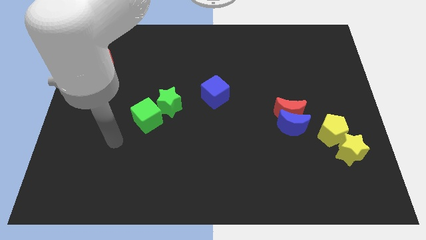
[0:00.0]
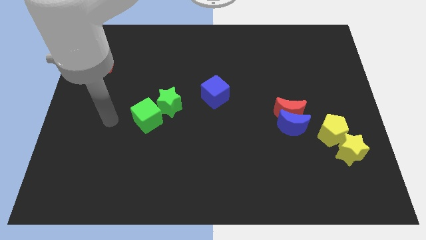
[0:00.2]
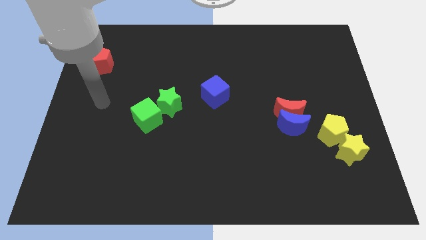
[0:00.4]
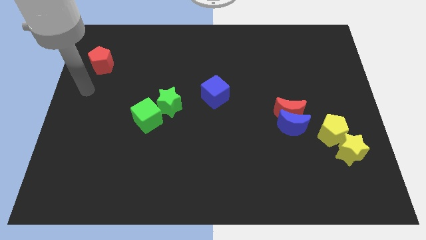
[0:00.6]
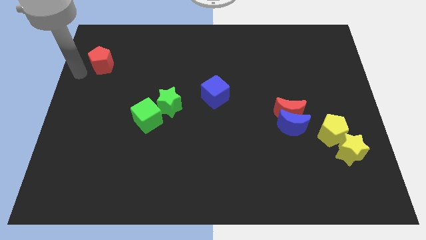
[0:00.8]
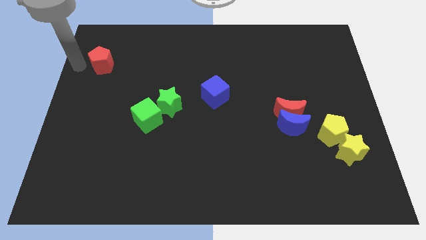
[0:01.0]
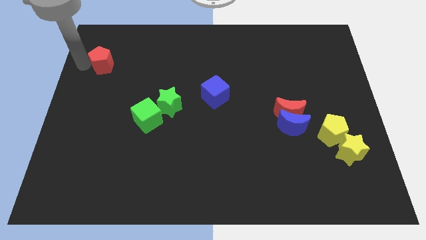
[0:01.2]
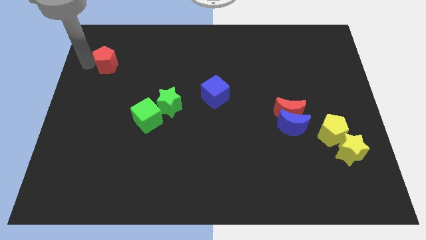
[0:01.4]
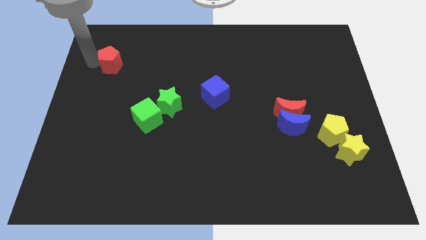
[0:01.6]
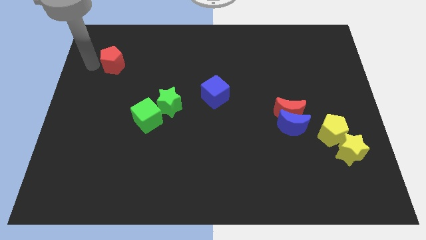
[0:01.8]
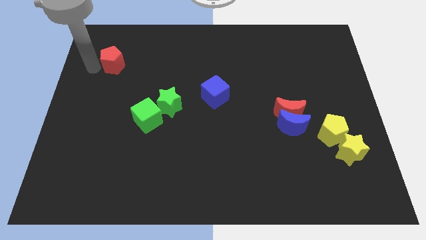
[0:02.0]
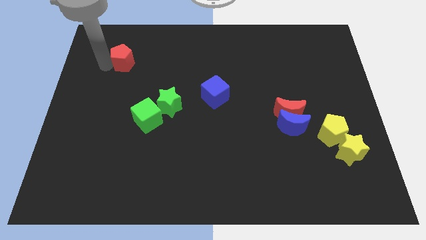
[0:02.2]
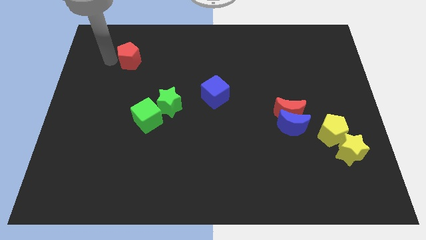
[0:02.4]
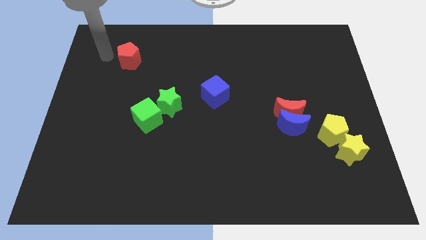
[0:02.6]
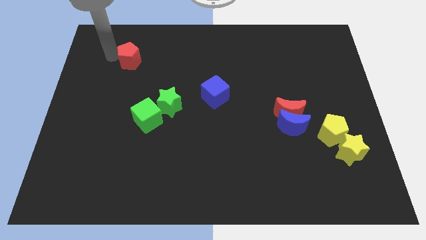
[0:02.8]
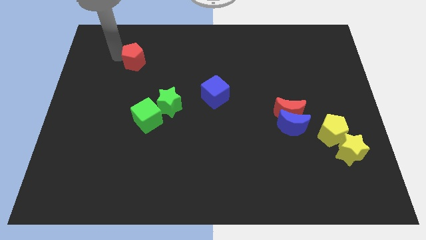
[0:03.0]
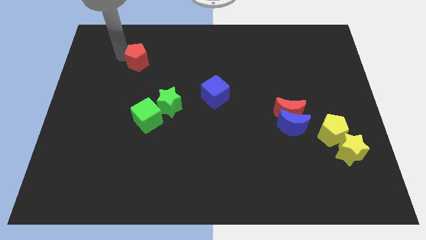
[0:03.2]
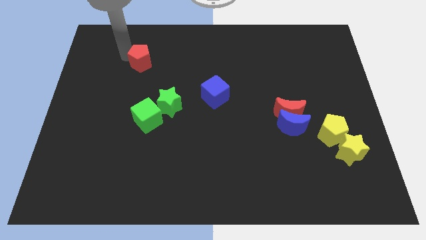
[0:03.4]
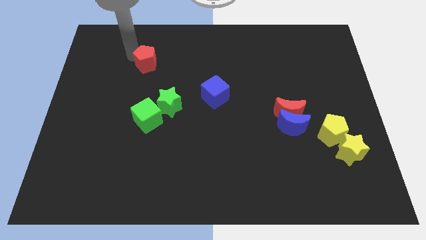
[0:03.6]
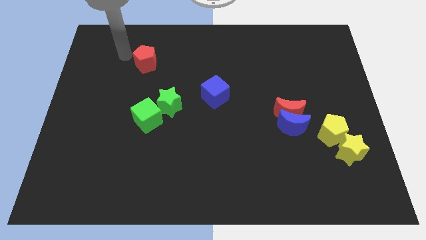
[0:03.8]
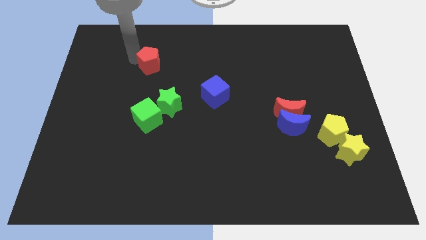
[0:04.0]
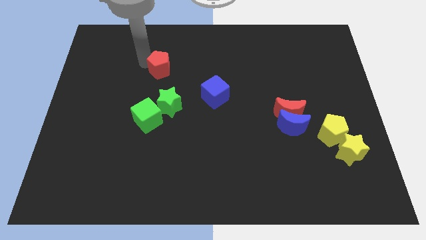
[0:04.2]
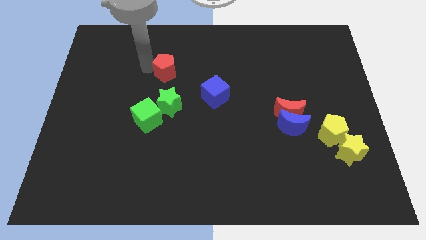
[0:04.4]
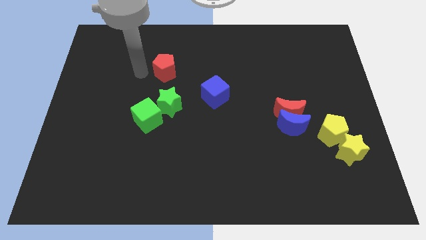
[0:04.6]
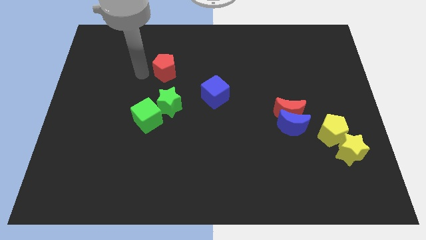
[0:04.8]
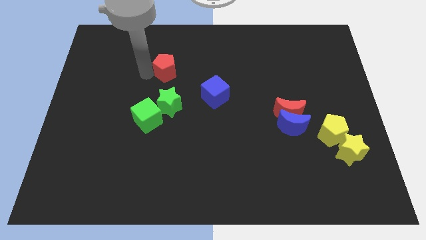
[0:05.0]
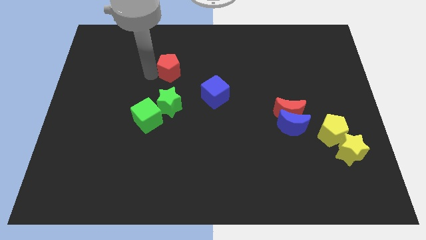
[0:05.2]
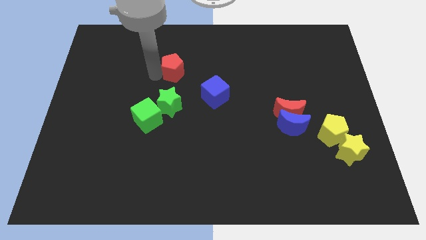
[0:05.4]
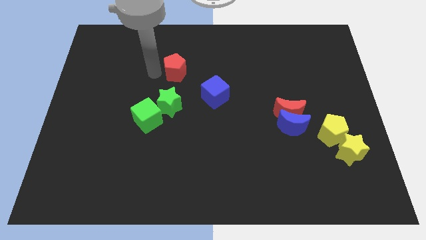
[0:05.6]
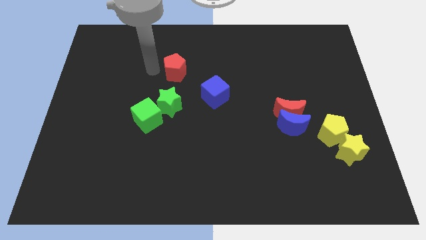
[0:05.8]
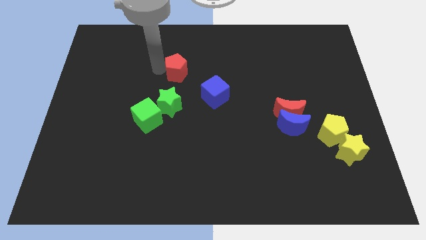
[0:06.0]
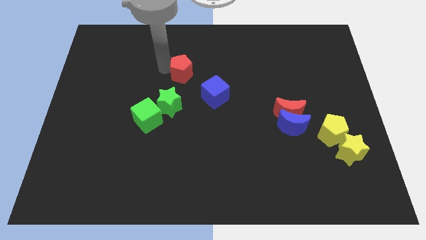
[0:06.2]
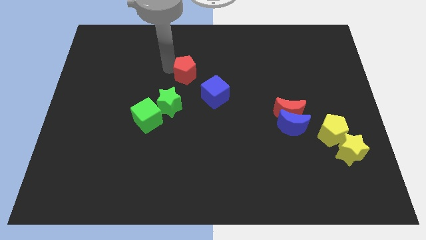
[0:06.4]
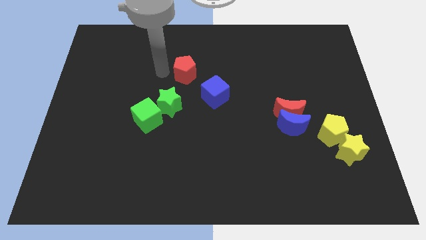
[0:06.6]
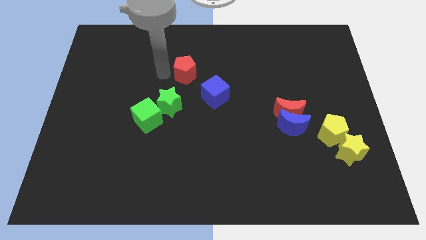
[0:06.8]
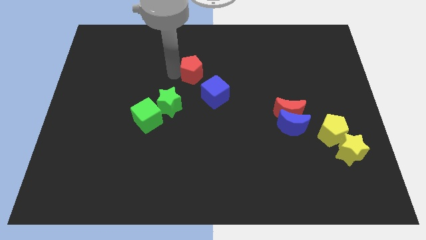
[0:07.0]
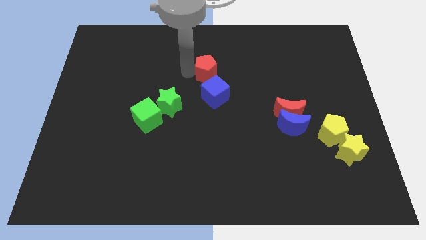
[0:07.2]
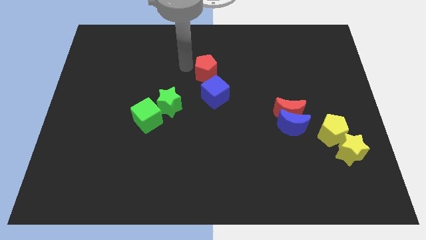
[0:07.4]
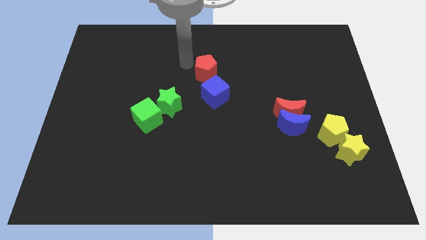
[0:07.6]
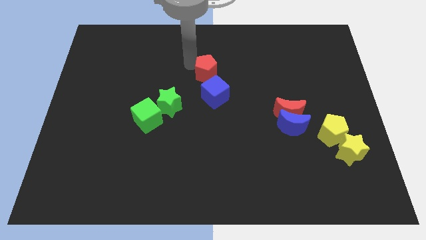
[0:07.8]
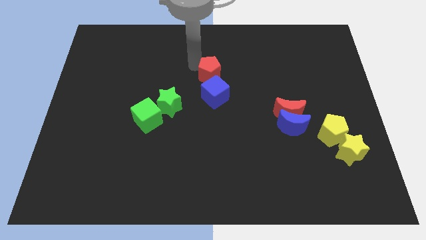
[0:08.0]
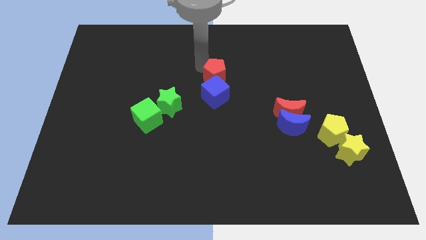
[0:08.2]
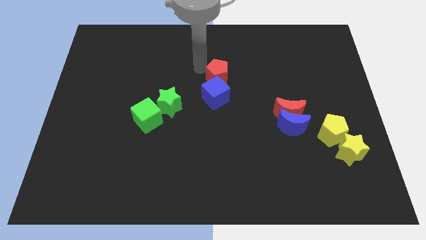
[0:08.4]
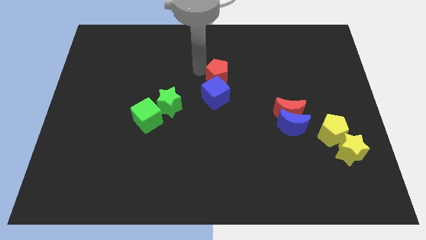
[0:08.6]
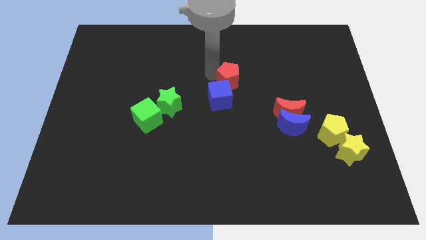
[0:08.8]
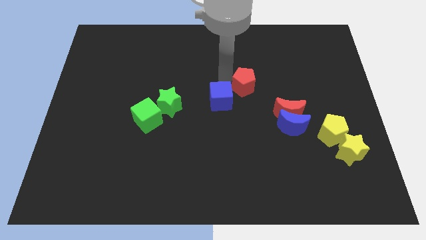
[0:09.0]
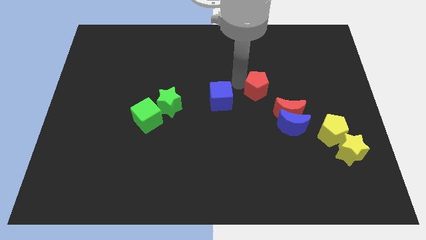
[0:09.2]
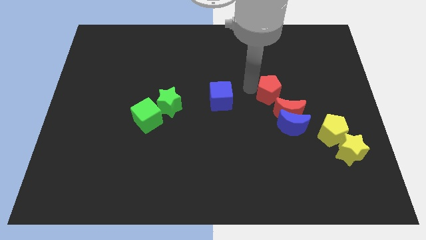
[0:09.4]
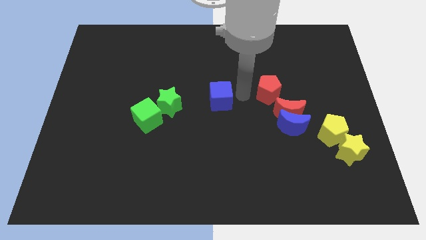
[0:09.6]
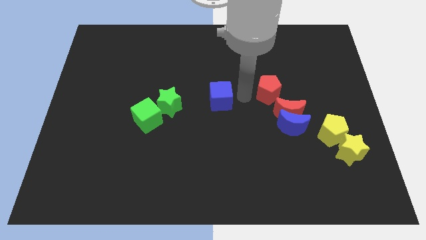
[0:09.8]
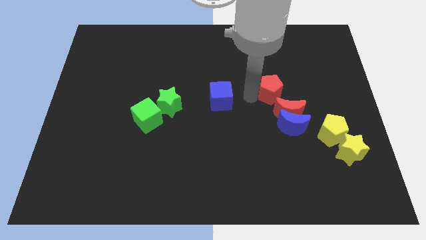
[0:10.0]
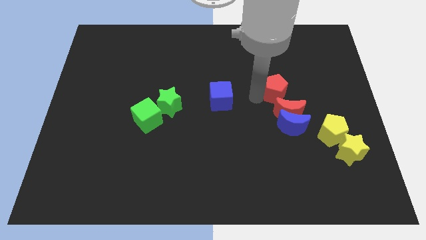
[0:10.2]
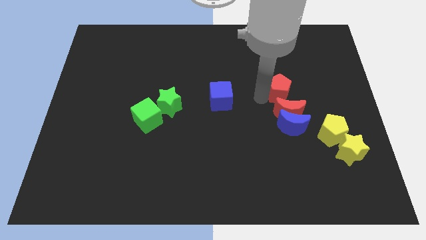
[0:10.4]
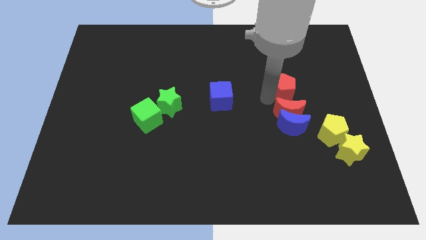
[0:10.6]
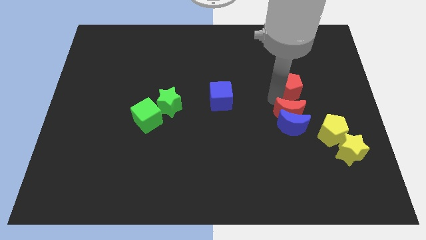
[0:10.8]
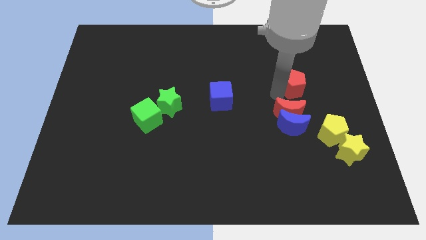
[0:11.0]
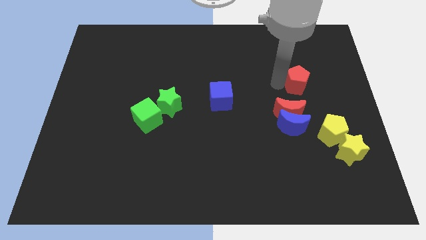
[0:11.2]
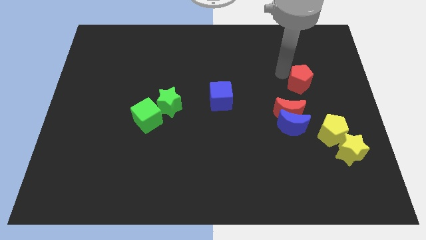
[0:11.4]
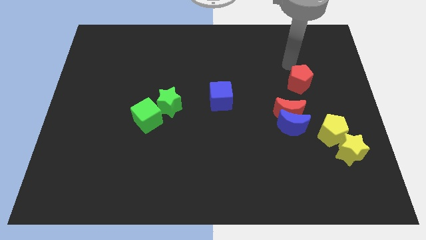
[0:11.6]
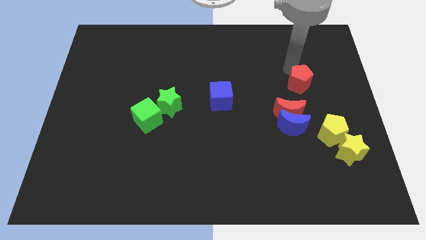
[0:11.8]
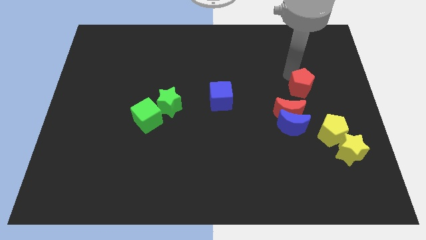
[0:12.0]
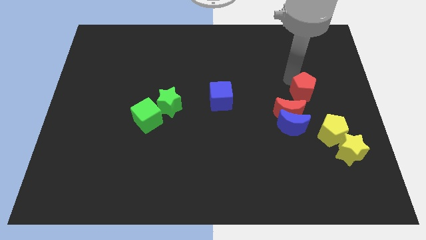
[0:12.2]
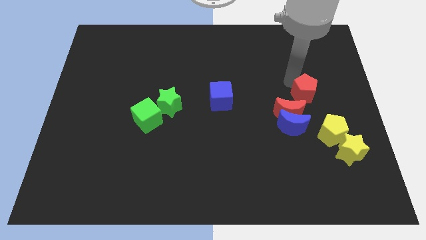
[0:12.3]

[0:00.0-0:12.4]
slide the red pentagon to the top right of the blue moon
